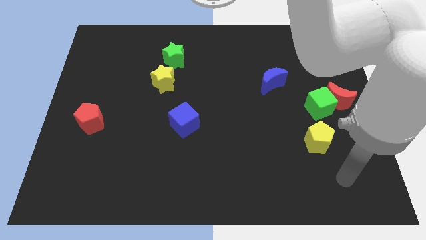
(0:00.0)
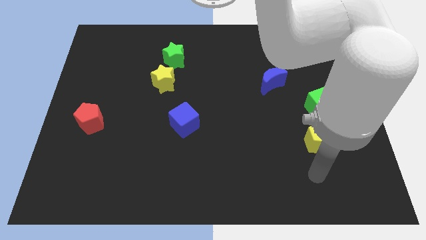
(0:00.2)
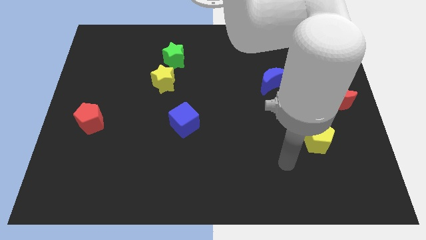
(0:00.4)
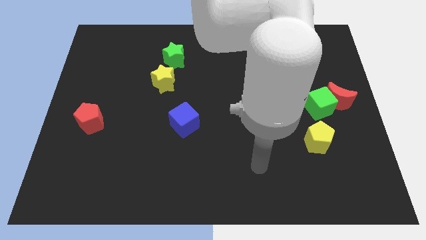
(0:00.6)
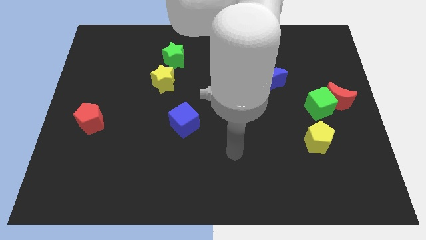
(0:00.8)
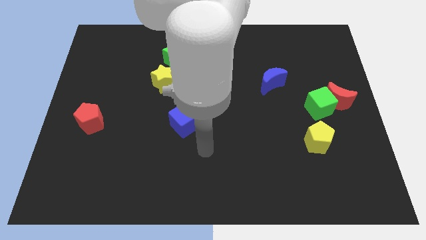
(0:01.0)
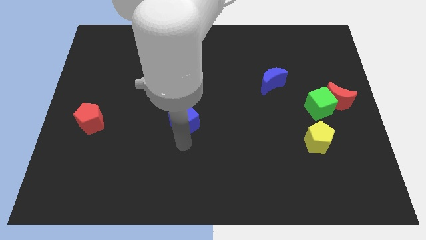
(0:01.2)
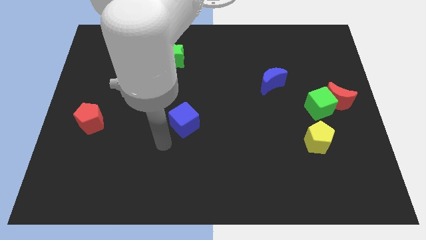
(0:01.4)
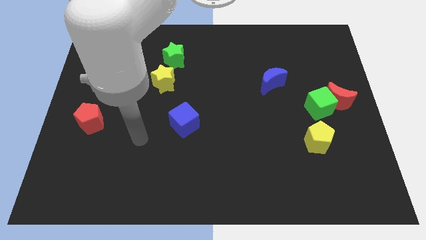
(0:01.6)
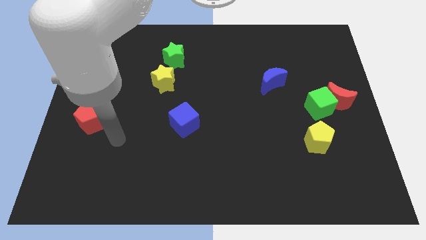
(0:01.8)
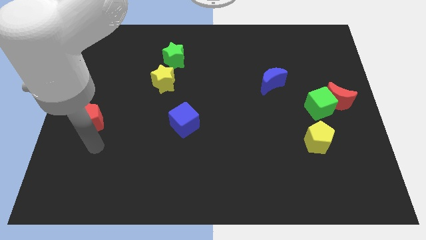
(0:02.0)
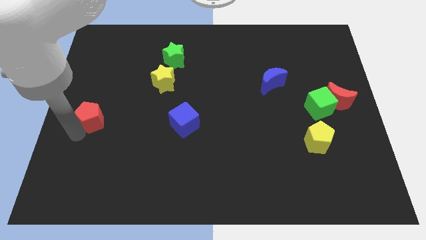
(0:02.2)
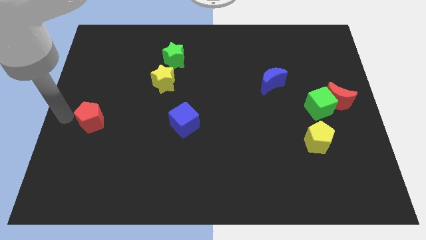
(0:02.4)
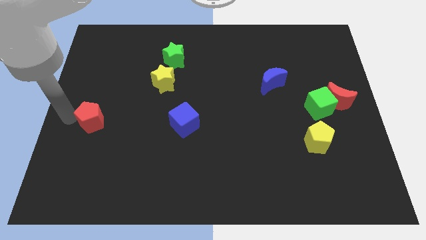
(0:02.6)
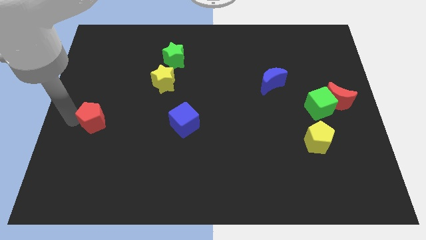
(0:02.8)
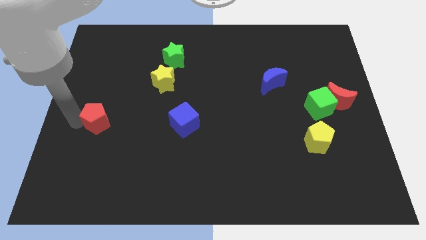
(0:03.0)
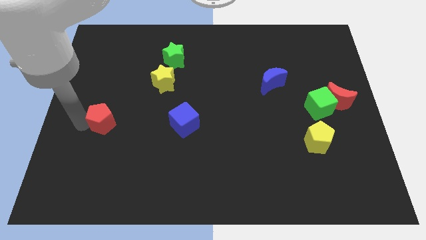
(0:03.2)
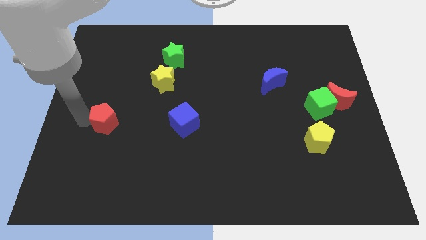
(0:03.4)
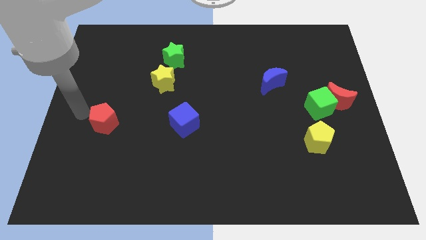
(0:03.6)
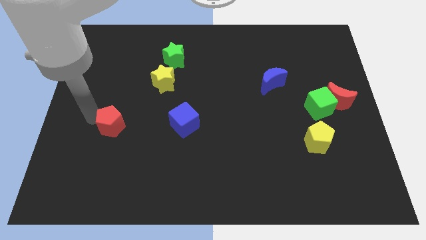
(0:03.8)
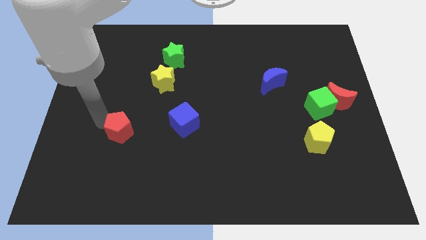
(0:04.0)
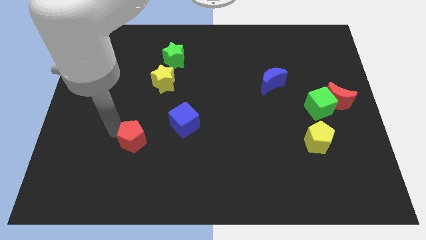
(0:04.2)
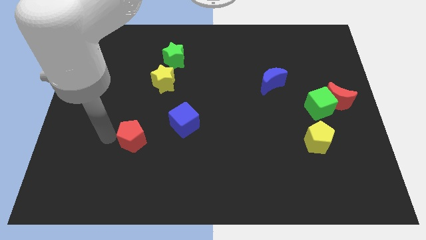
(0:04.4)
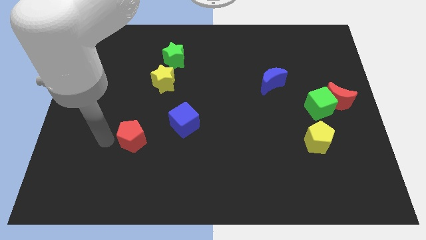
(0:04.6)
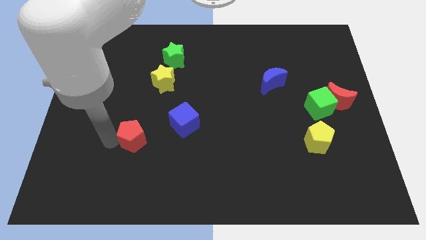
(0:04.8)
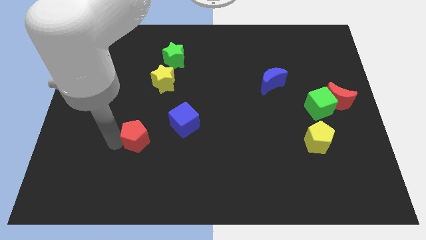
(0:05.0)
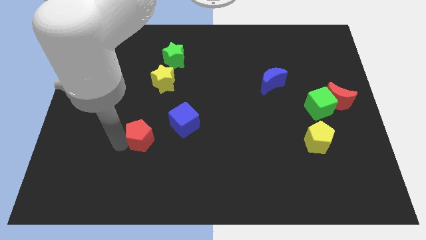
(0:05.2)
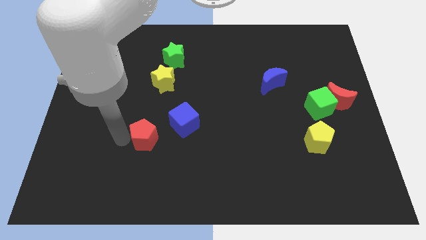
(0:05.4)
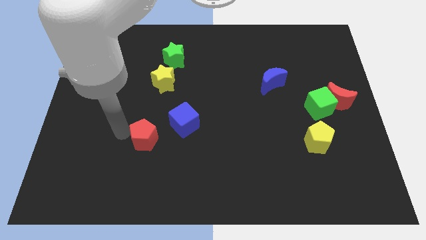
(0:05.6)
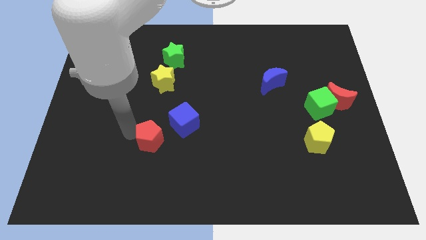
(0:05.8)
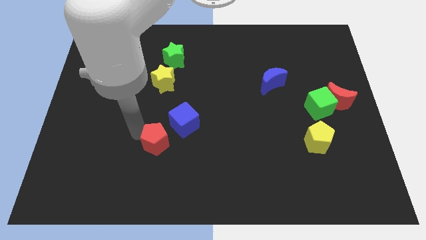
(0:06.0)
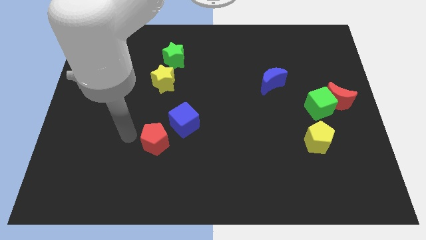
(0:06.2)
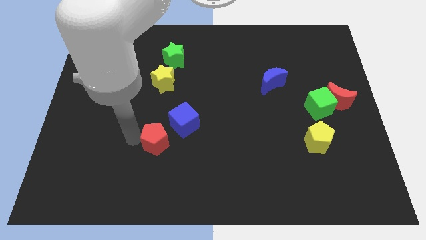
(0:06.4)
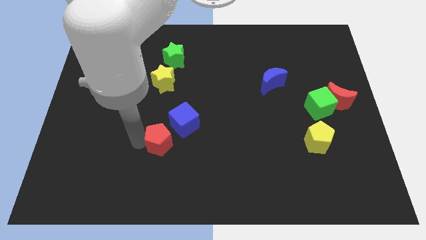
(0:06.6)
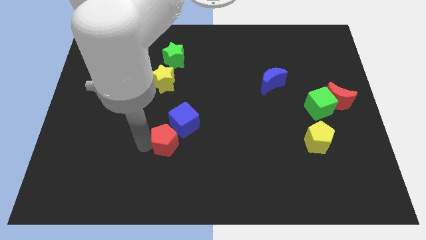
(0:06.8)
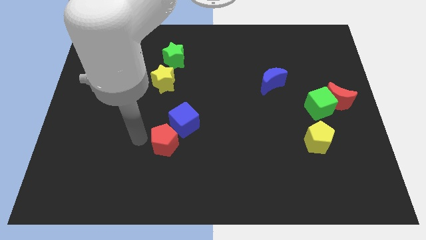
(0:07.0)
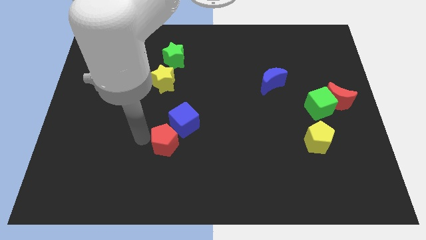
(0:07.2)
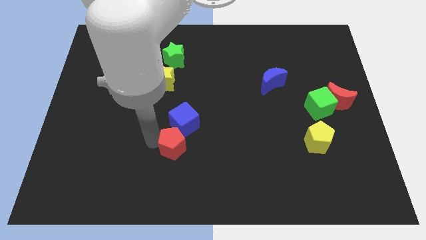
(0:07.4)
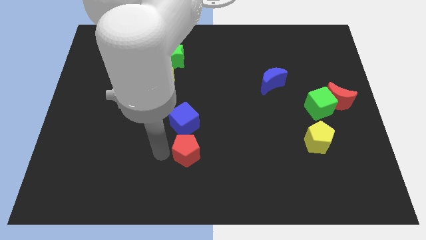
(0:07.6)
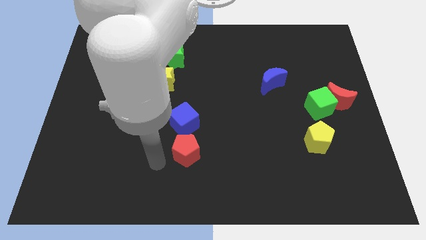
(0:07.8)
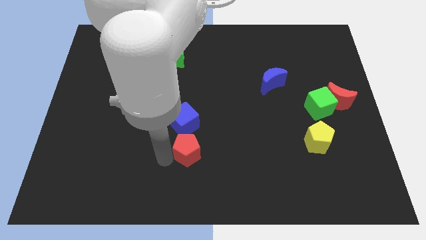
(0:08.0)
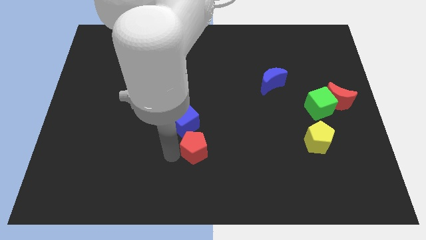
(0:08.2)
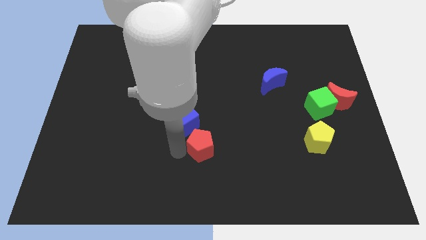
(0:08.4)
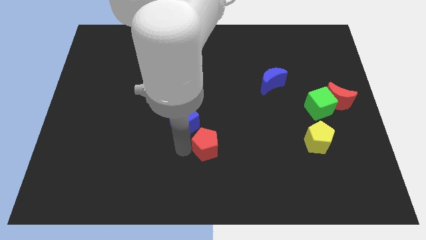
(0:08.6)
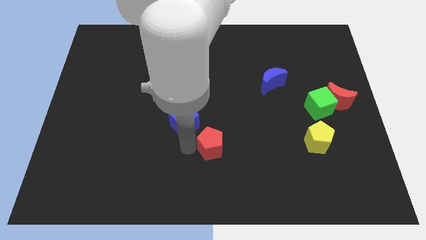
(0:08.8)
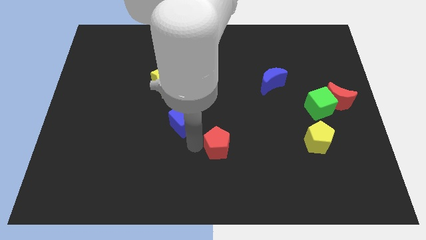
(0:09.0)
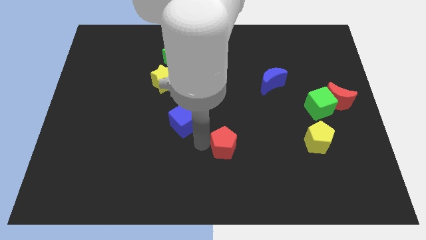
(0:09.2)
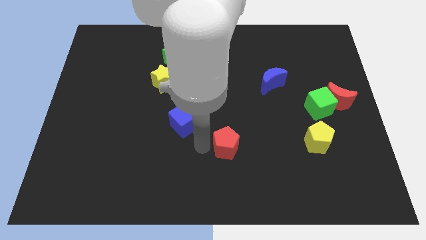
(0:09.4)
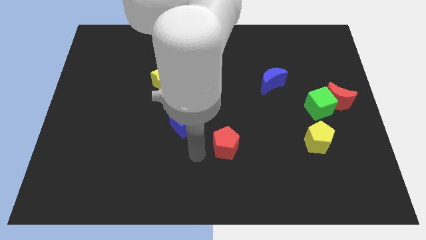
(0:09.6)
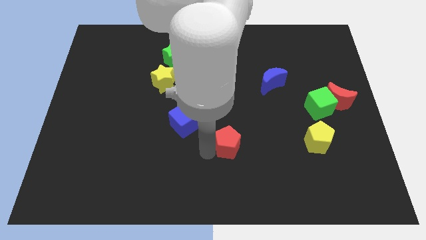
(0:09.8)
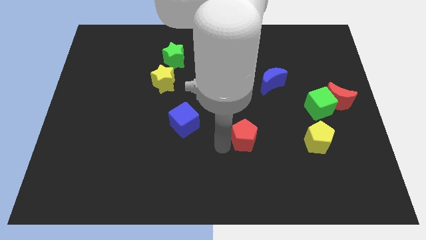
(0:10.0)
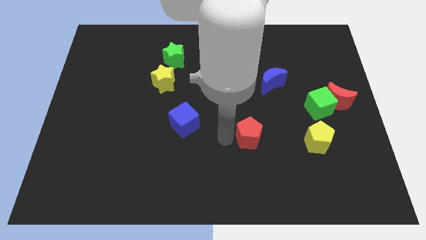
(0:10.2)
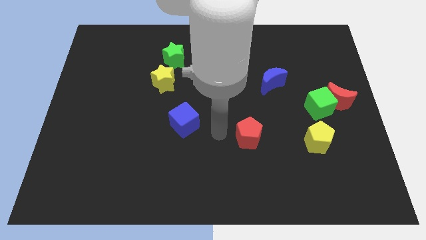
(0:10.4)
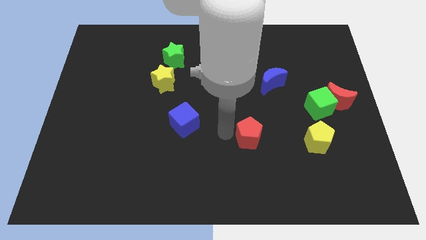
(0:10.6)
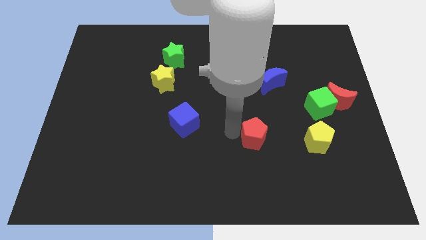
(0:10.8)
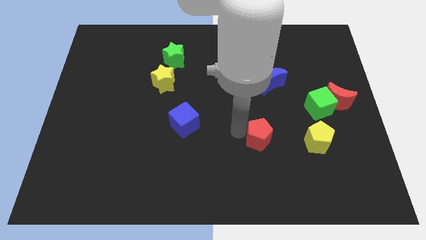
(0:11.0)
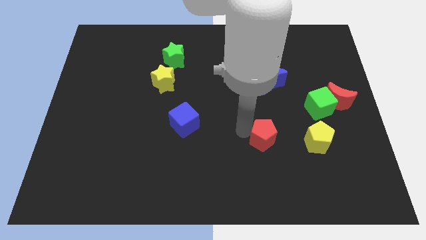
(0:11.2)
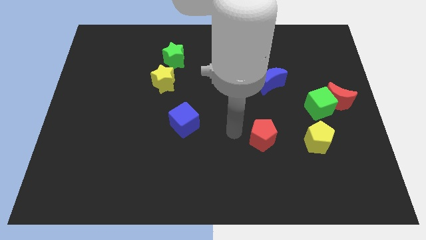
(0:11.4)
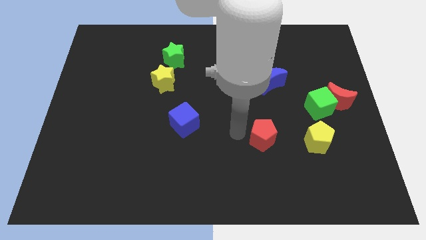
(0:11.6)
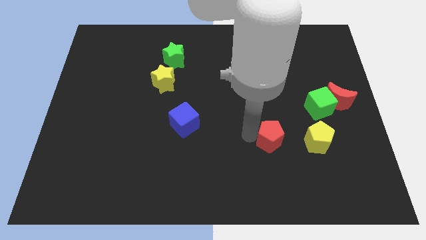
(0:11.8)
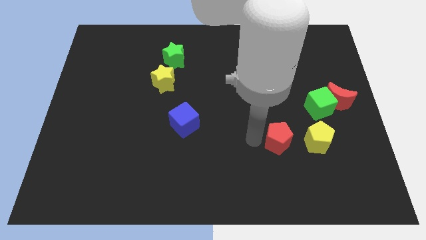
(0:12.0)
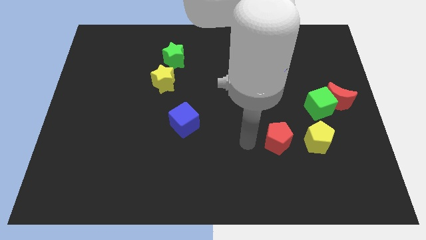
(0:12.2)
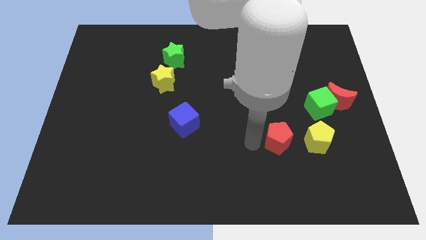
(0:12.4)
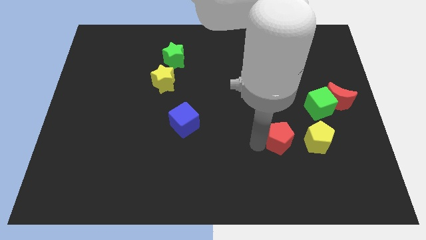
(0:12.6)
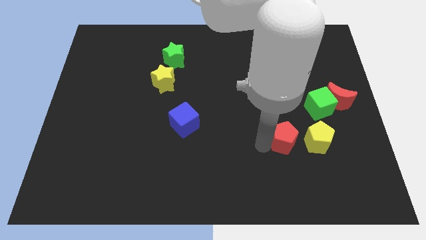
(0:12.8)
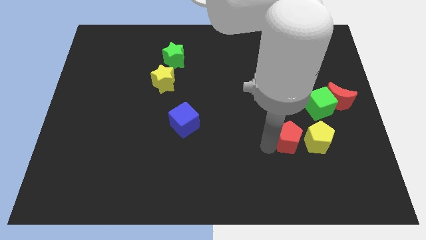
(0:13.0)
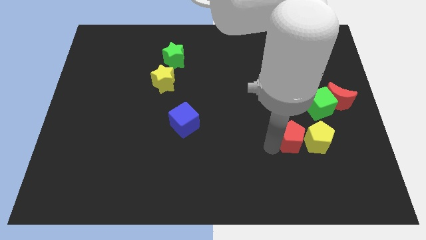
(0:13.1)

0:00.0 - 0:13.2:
move the red pentagon close to the yellow pentagon
